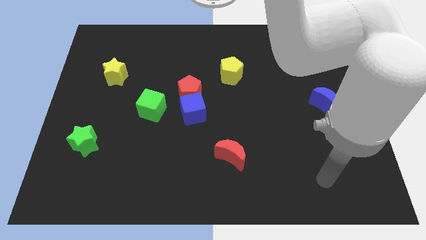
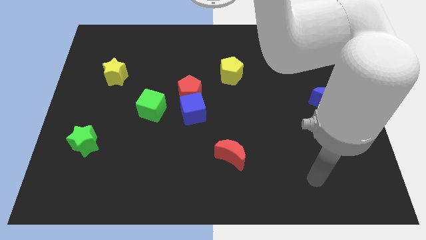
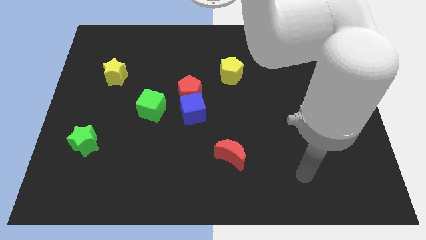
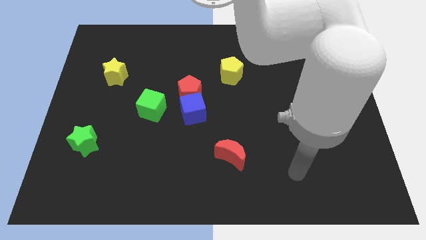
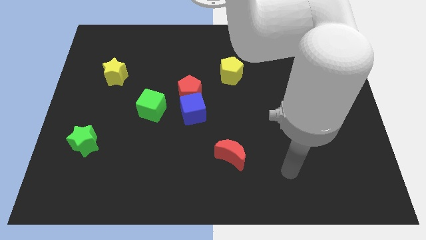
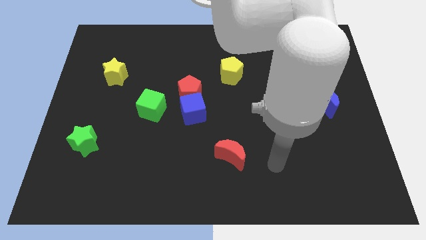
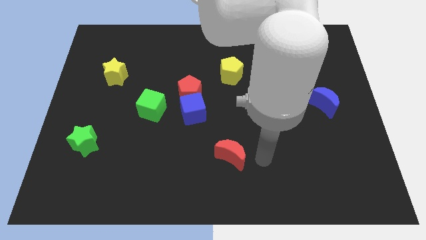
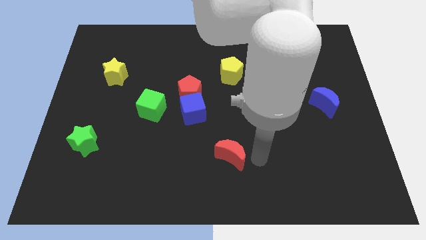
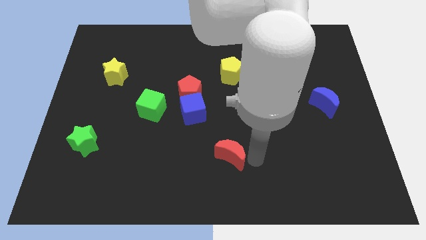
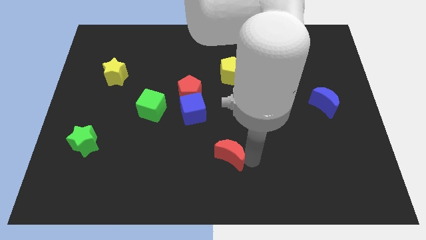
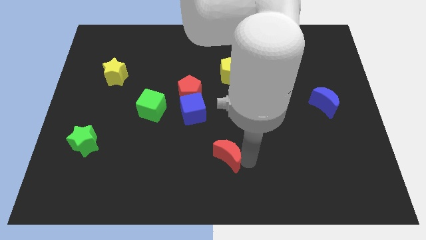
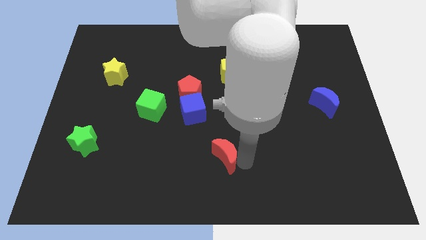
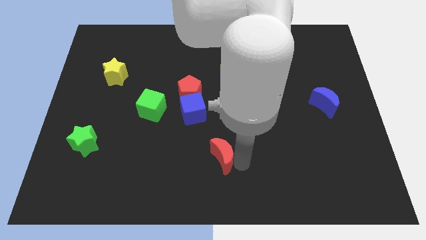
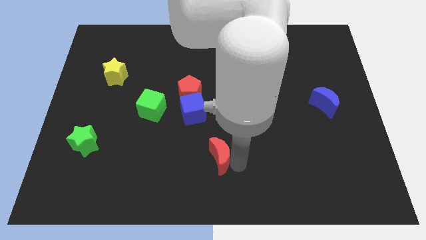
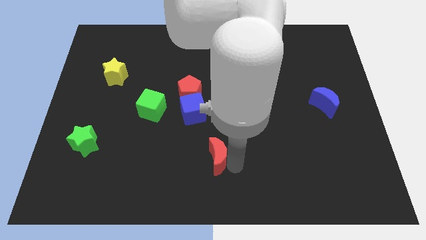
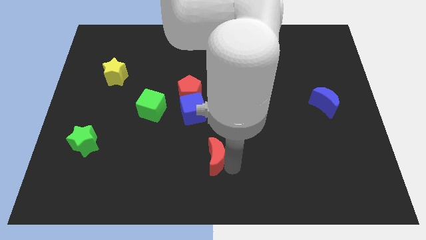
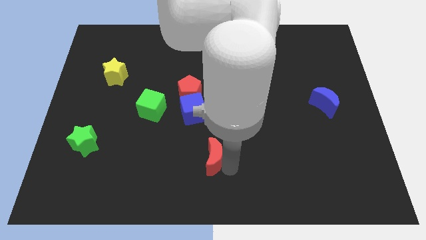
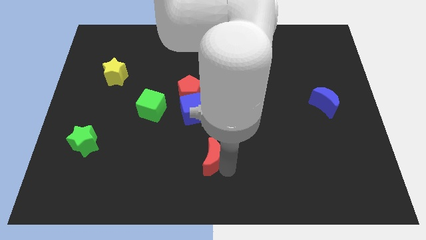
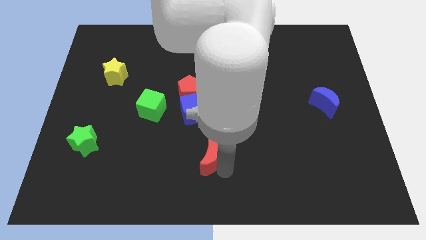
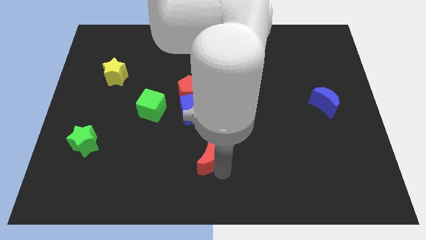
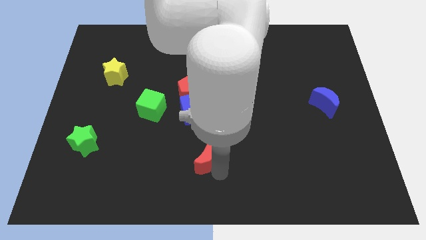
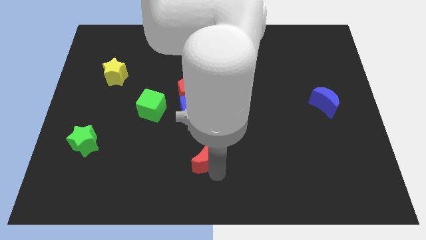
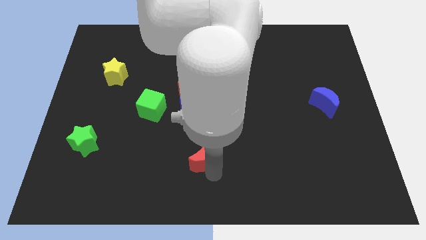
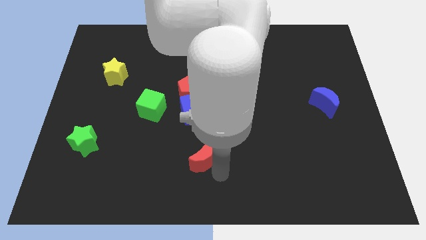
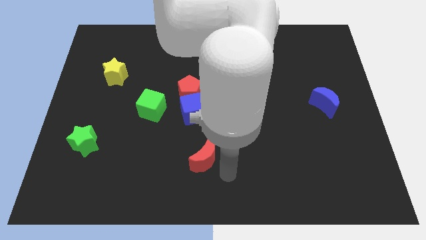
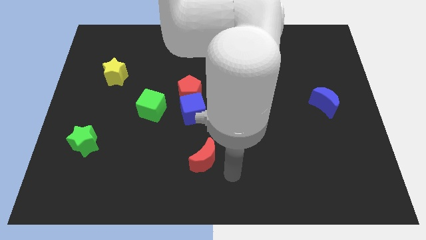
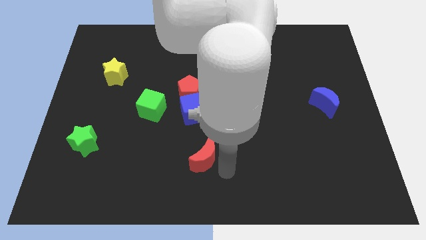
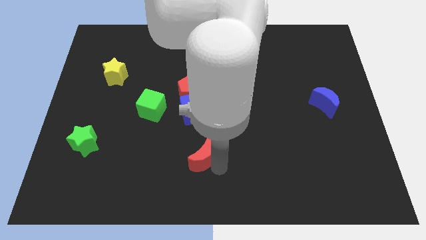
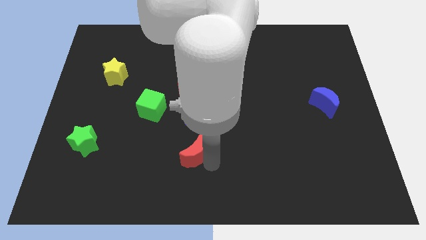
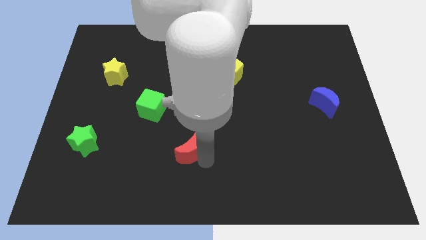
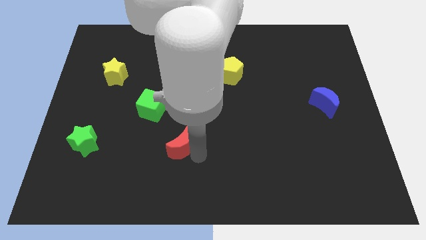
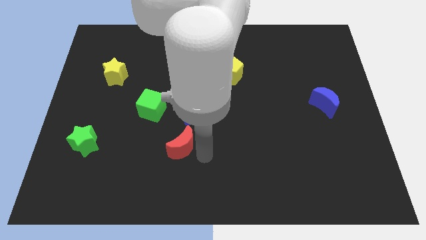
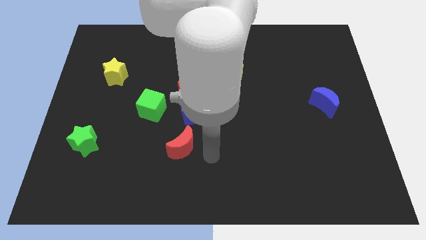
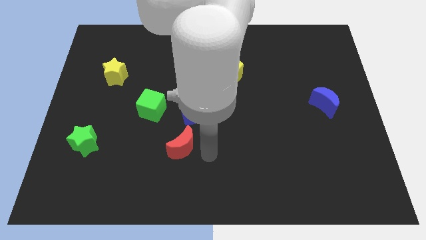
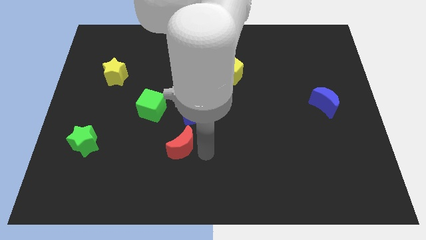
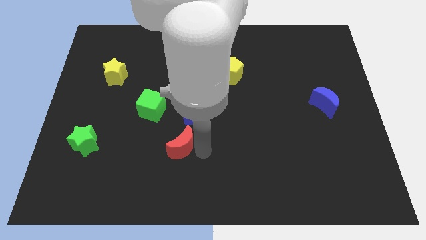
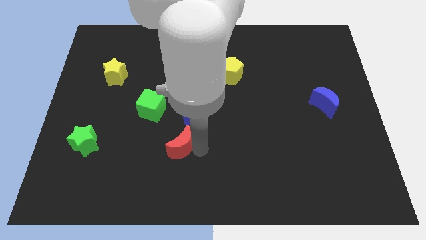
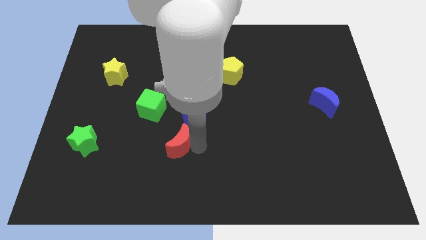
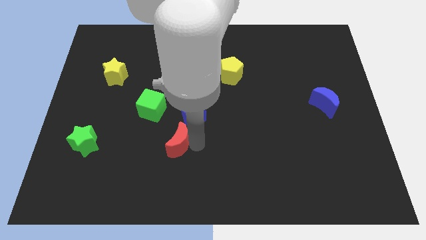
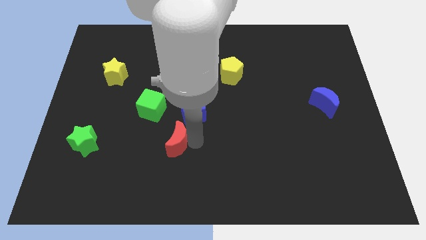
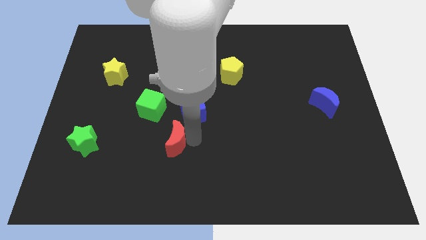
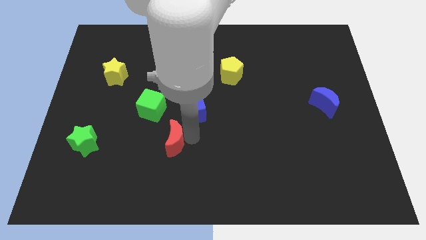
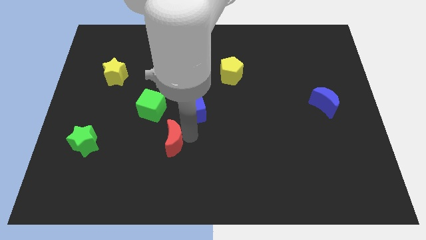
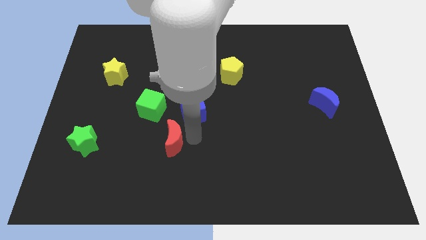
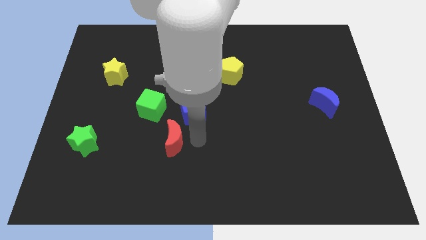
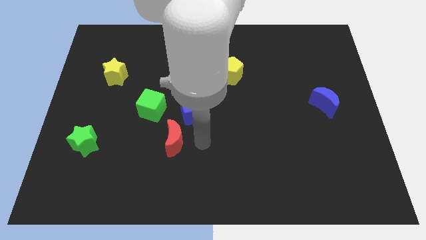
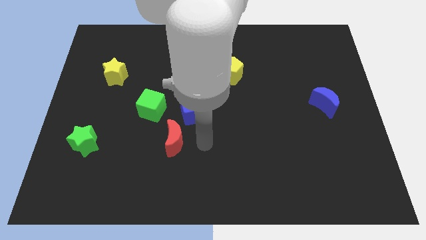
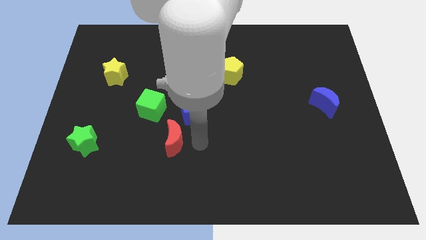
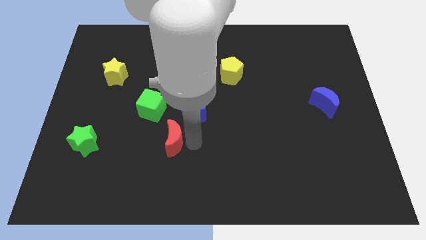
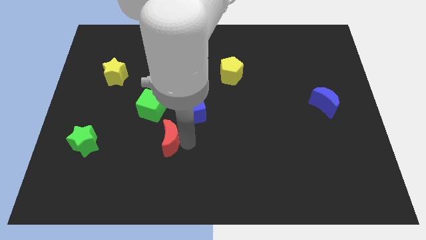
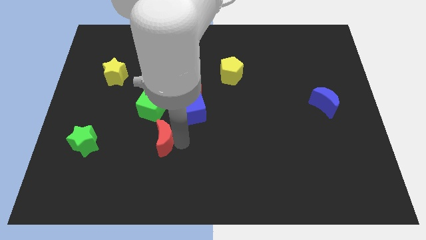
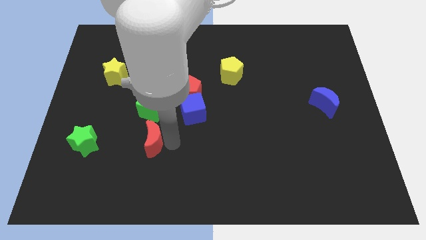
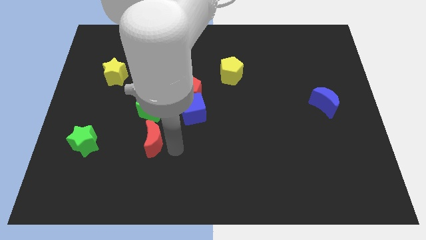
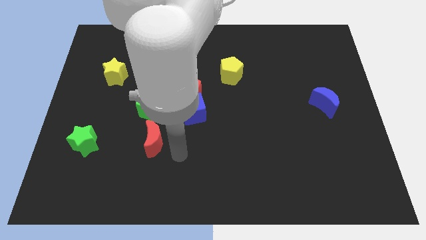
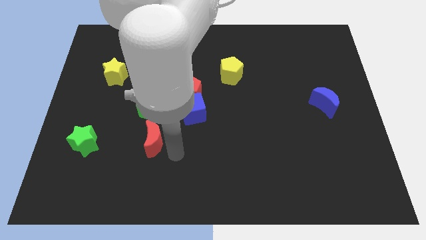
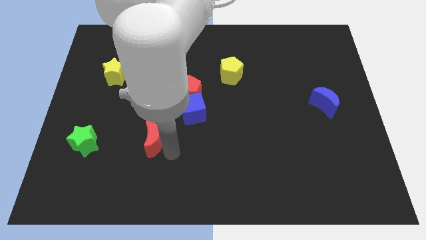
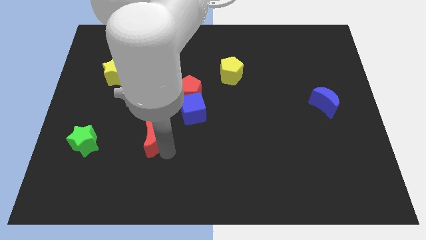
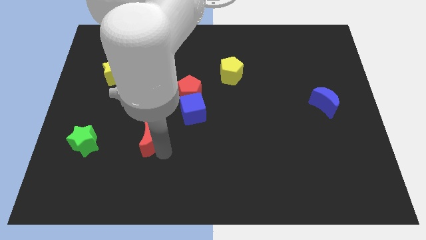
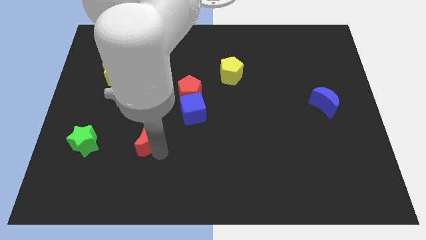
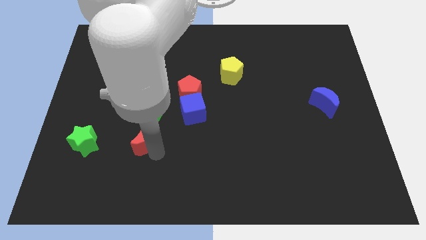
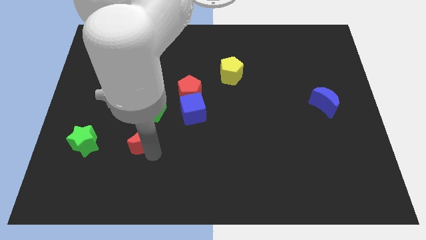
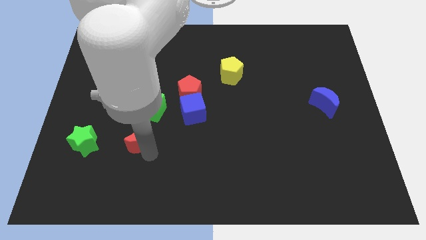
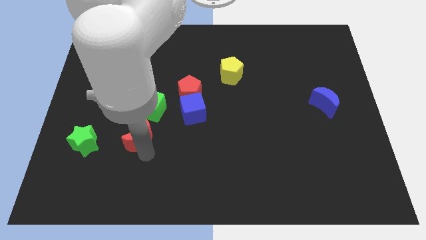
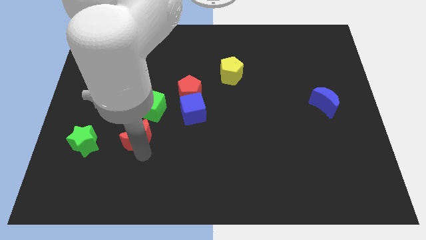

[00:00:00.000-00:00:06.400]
push the red moon diagonally down and to the left of the green cube

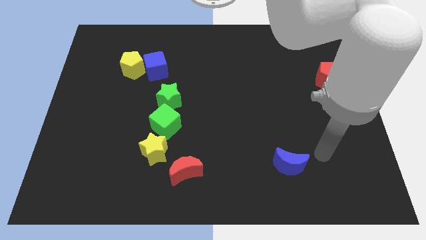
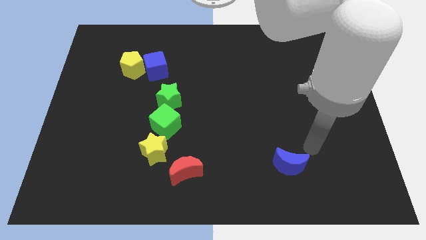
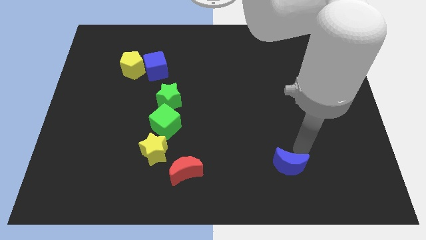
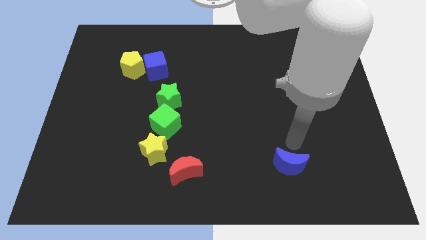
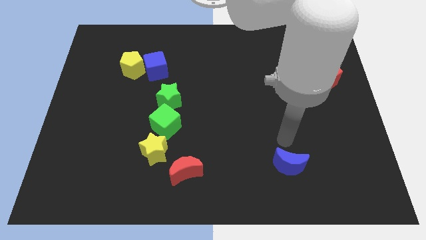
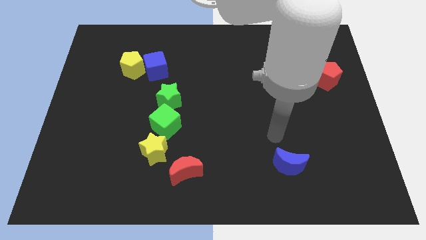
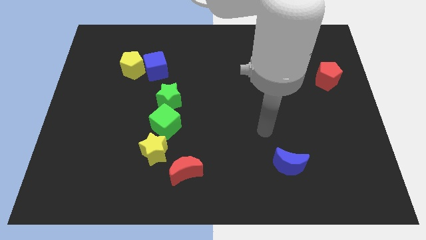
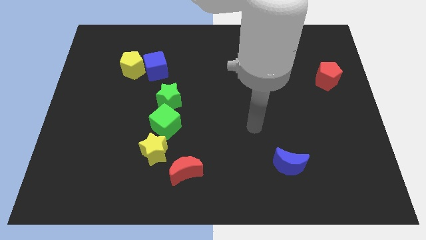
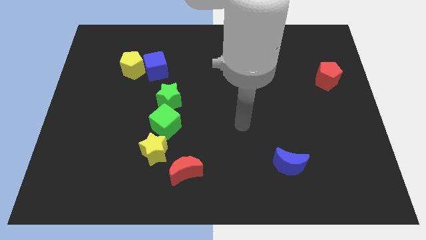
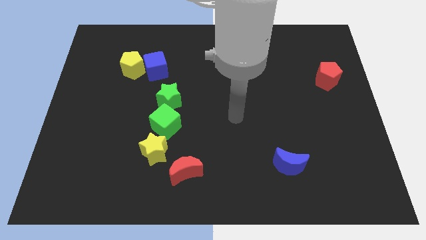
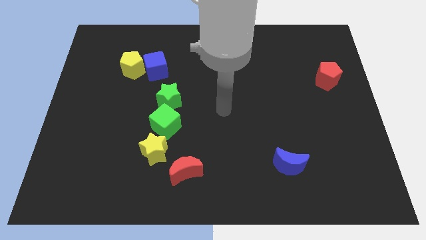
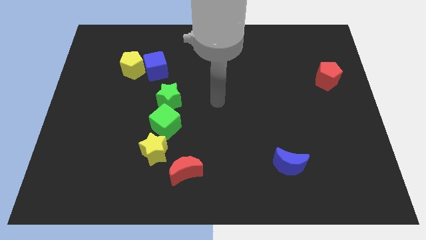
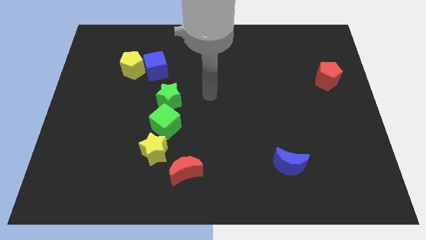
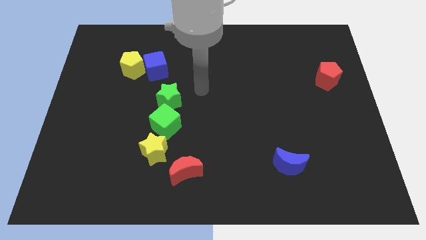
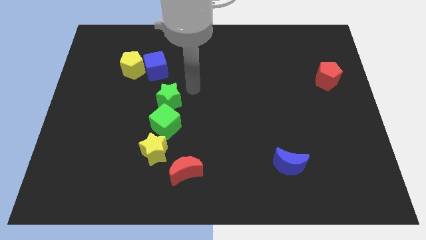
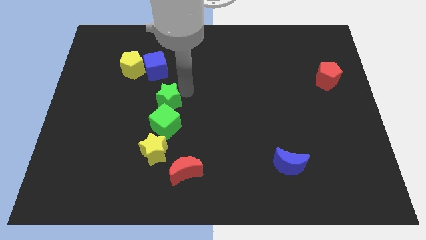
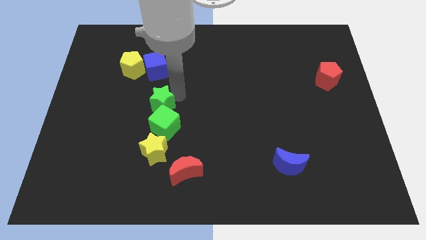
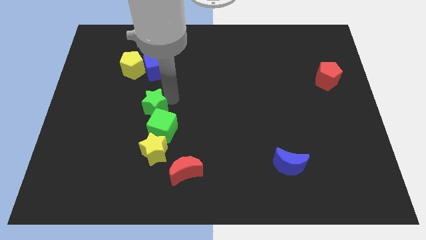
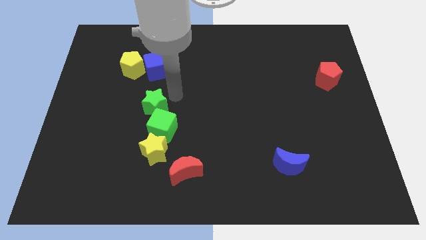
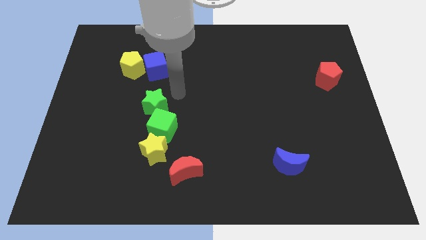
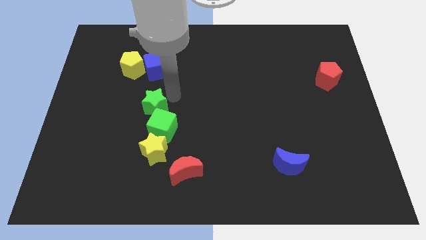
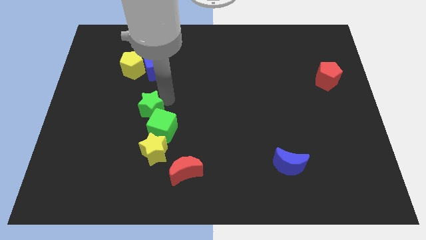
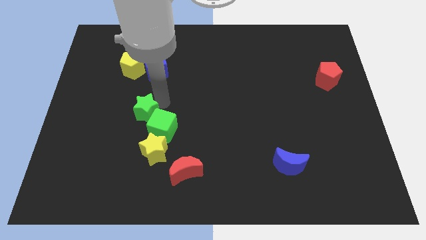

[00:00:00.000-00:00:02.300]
push the green star just left of the green cube
